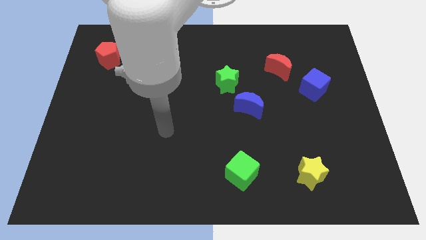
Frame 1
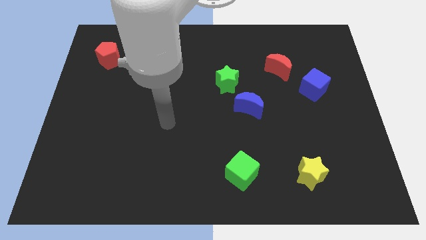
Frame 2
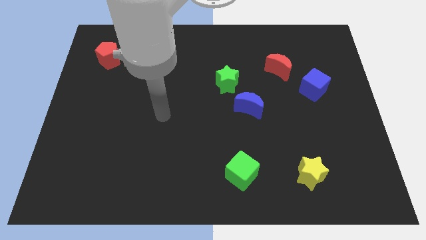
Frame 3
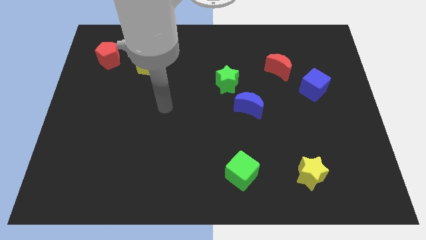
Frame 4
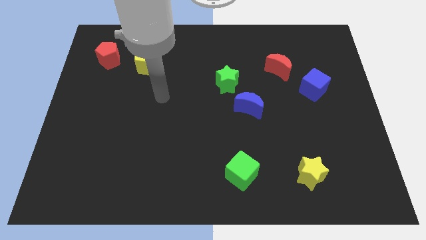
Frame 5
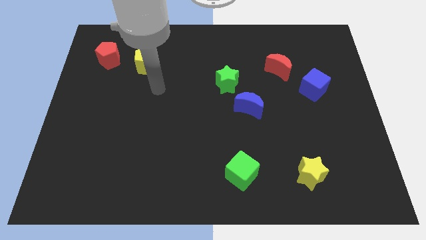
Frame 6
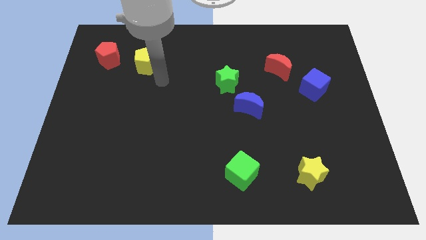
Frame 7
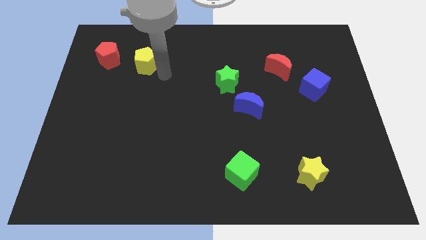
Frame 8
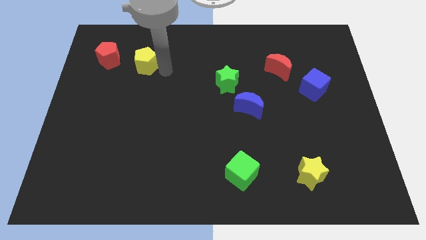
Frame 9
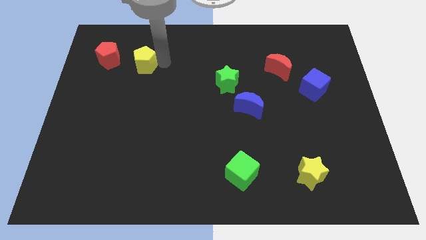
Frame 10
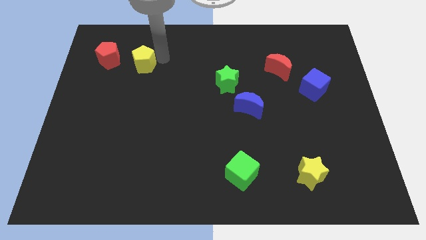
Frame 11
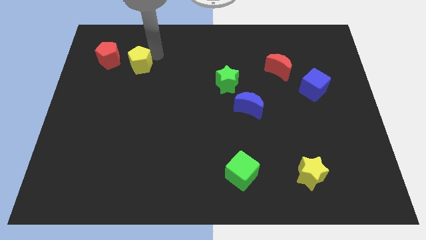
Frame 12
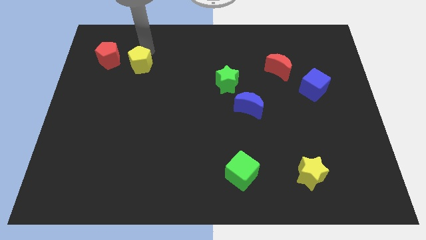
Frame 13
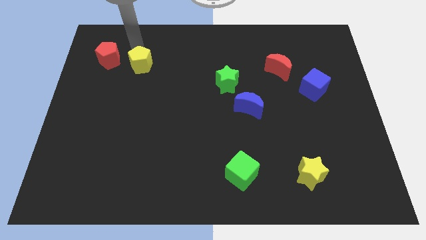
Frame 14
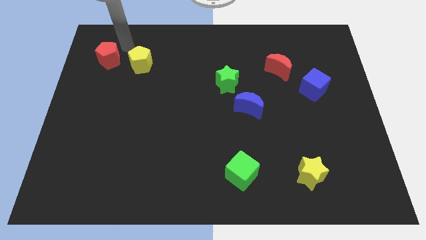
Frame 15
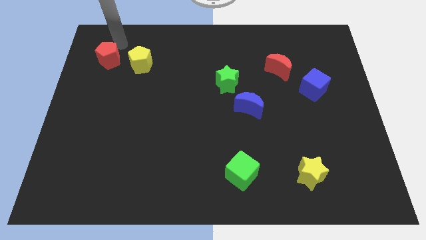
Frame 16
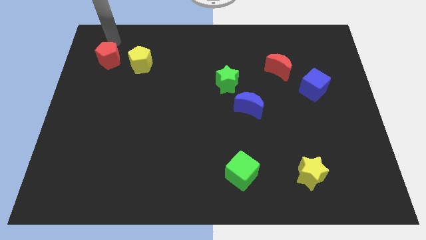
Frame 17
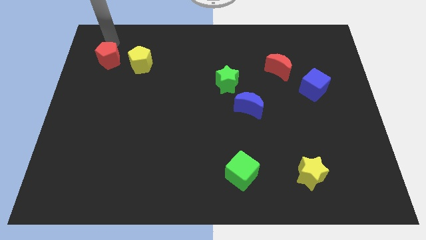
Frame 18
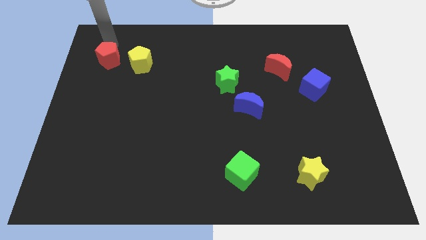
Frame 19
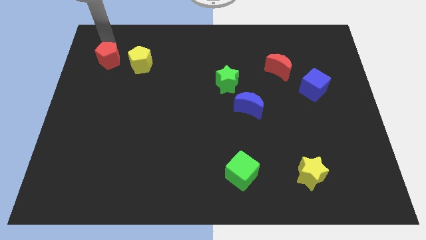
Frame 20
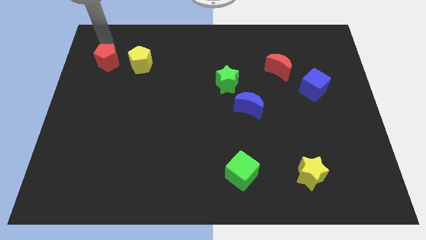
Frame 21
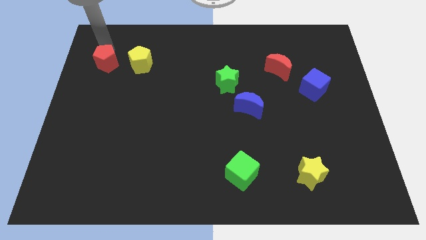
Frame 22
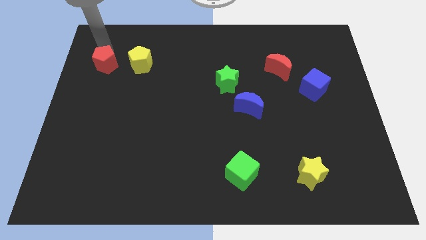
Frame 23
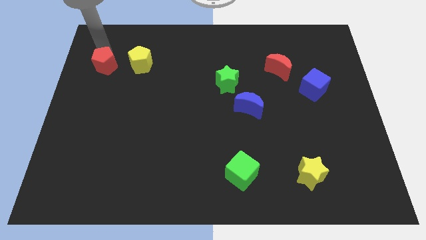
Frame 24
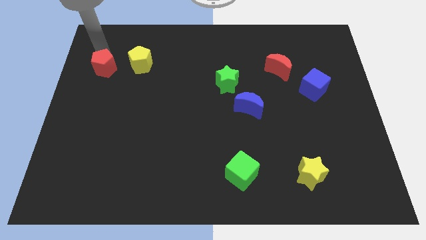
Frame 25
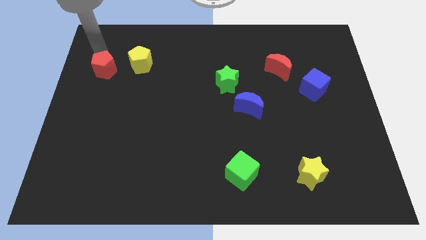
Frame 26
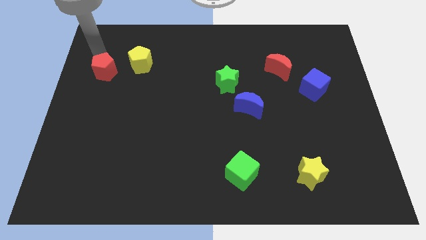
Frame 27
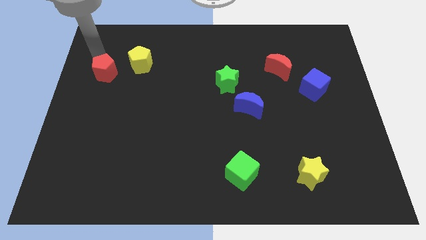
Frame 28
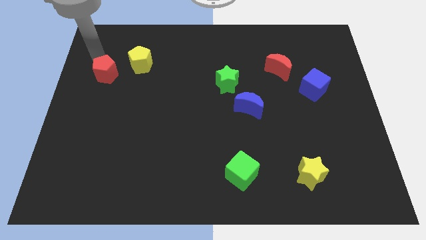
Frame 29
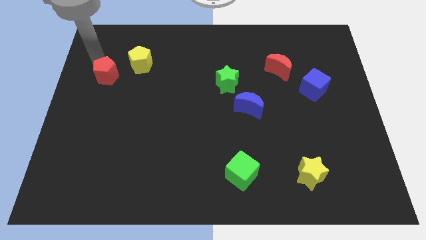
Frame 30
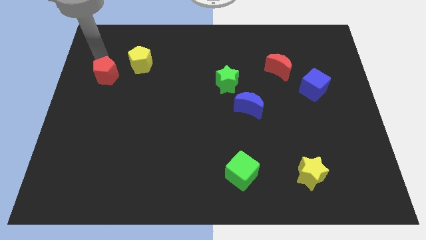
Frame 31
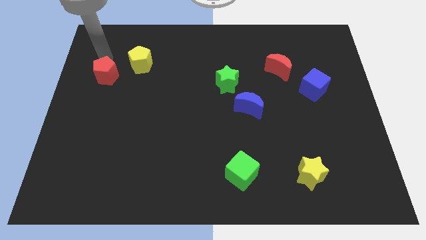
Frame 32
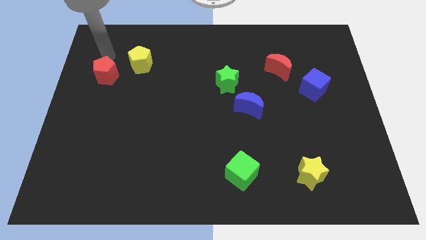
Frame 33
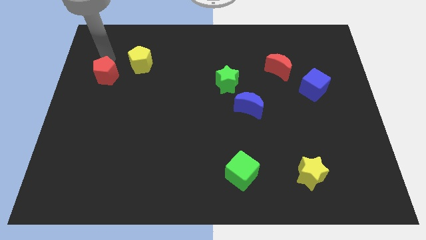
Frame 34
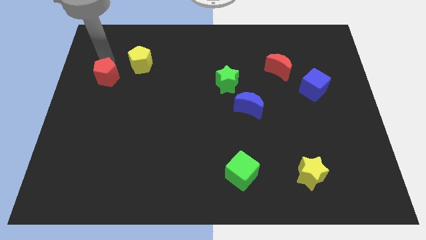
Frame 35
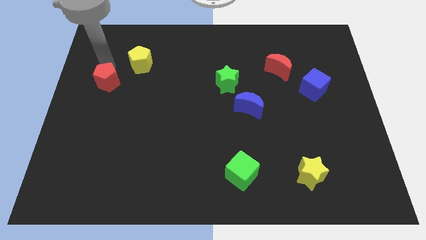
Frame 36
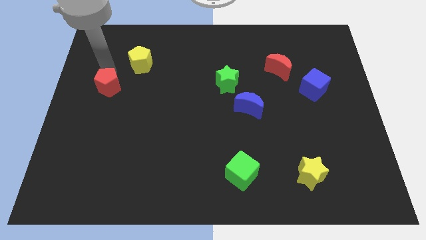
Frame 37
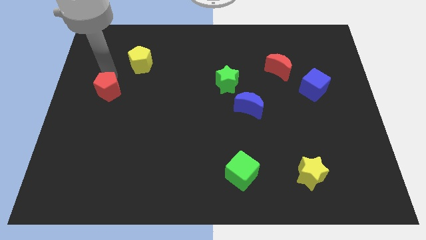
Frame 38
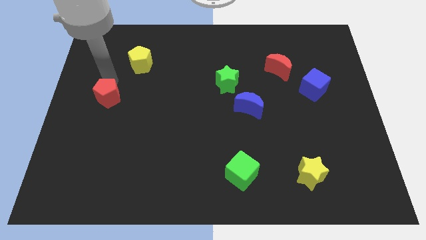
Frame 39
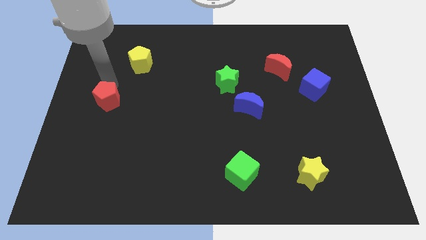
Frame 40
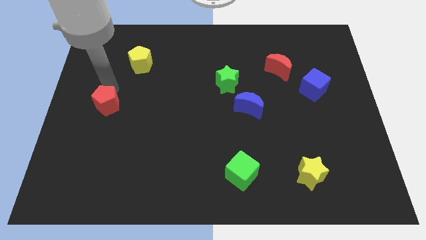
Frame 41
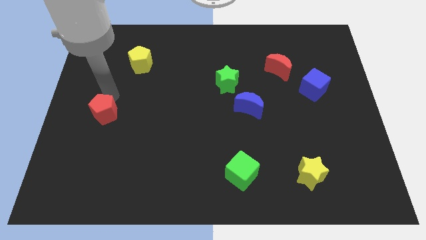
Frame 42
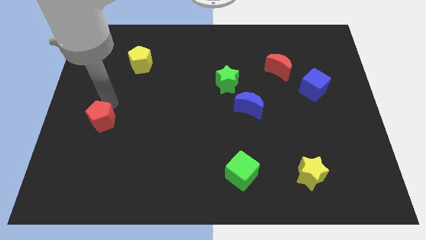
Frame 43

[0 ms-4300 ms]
move the red pentagon downwards

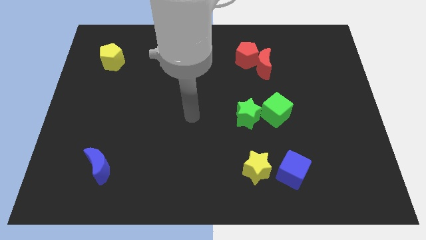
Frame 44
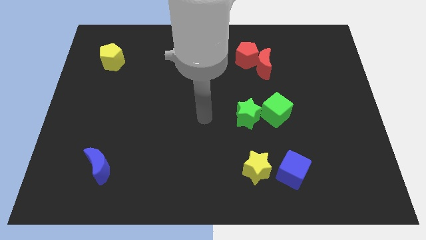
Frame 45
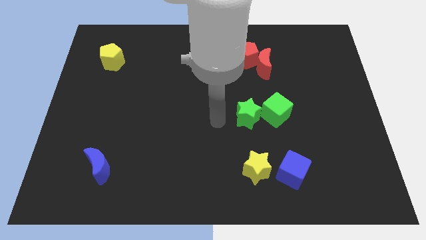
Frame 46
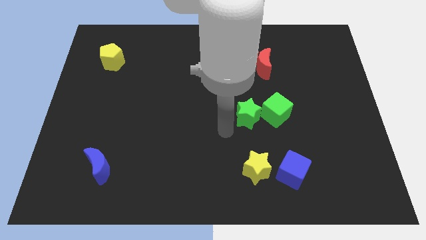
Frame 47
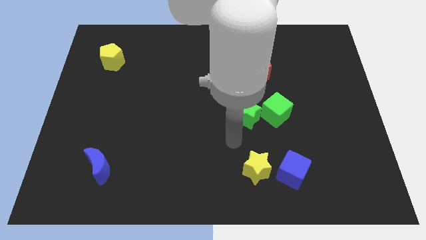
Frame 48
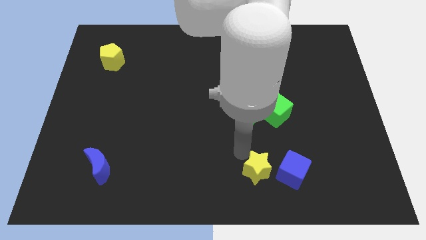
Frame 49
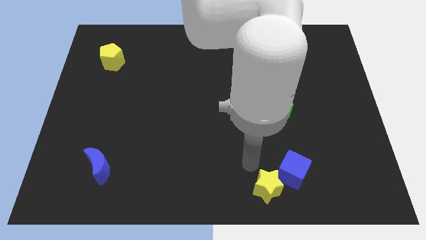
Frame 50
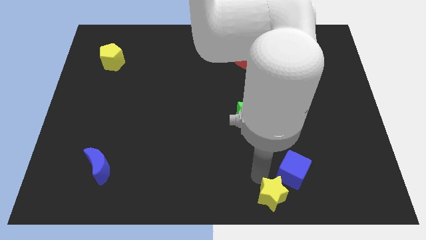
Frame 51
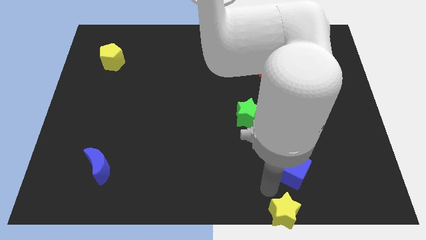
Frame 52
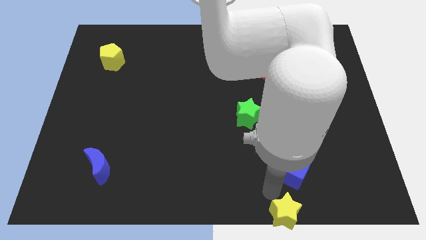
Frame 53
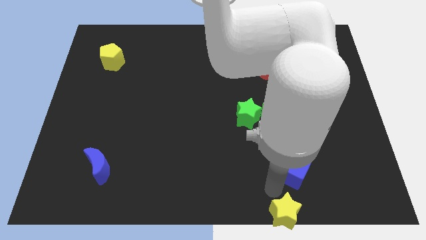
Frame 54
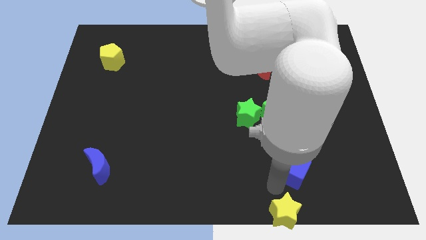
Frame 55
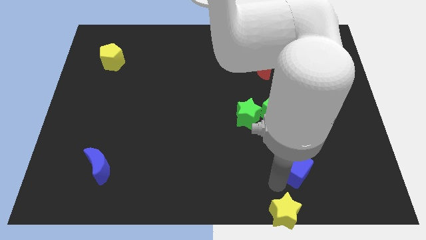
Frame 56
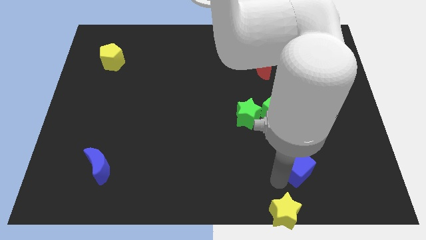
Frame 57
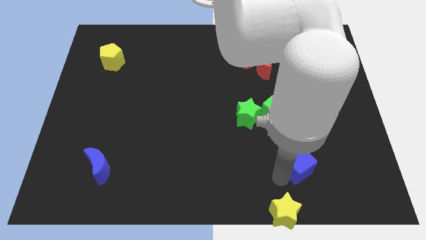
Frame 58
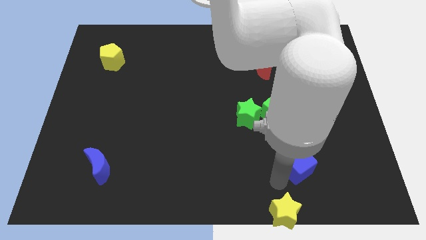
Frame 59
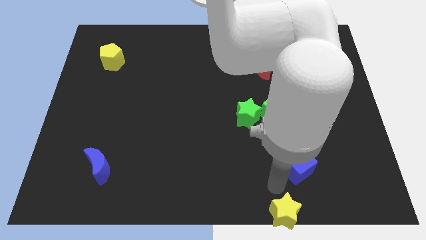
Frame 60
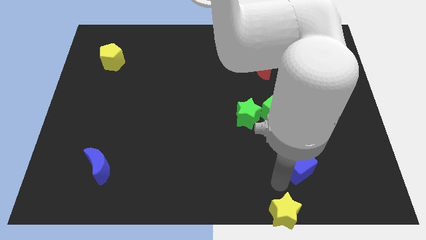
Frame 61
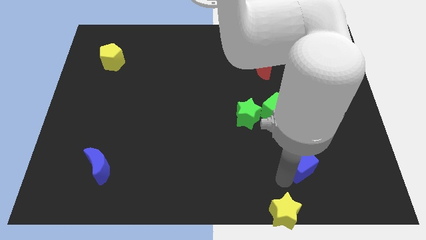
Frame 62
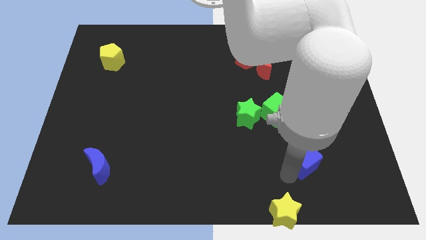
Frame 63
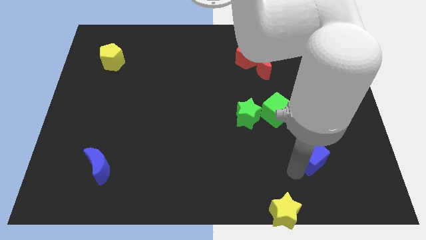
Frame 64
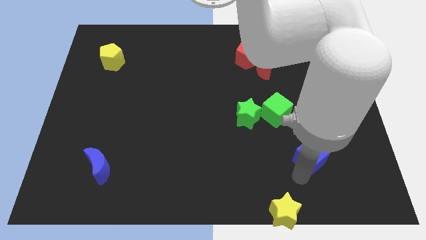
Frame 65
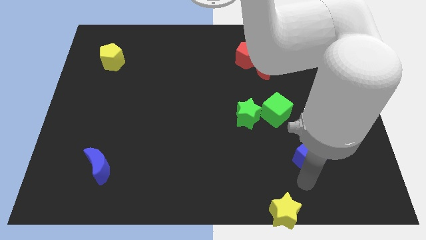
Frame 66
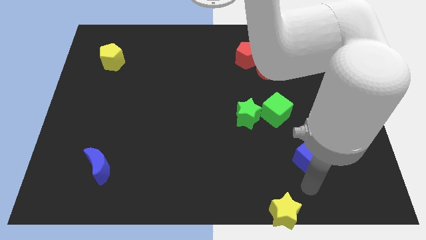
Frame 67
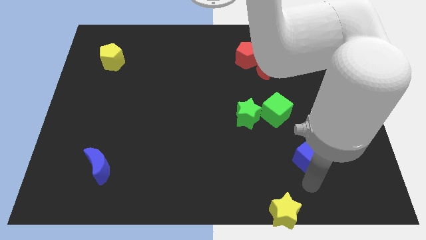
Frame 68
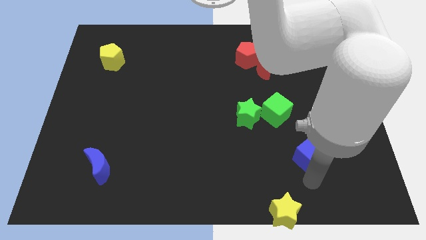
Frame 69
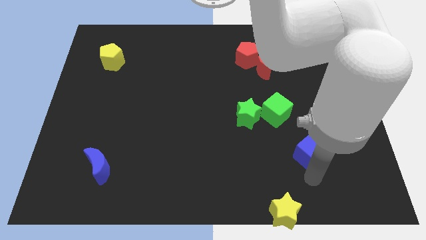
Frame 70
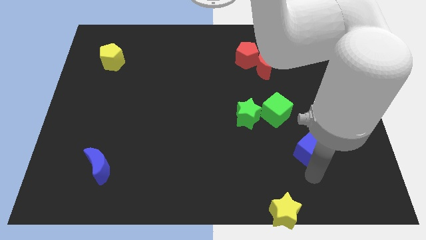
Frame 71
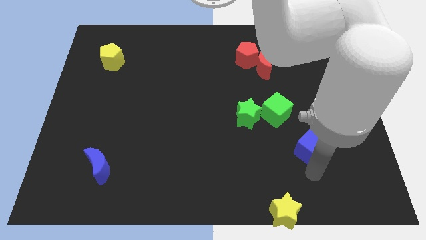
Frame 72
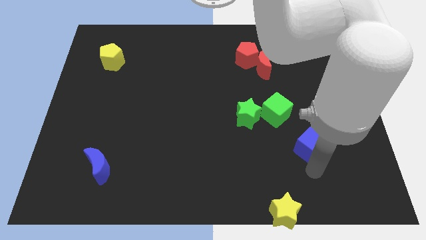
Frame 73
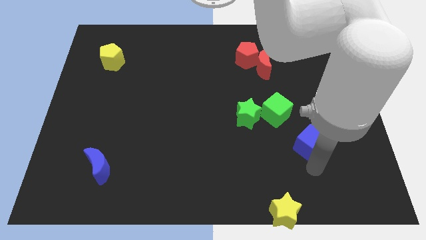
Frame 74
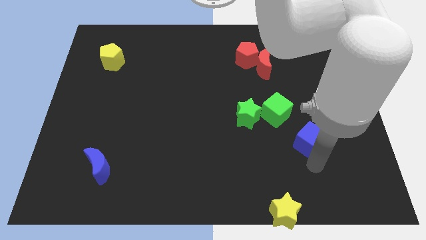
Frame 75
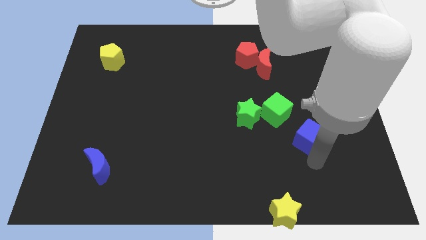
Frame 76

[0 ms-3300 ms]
push the blue cube slightly up

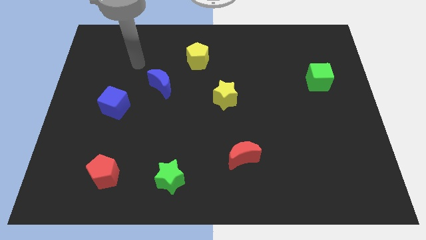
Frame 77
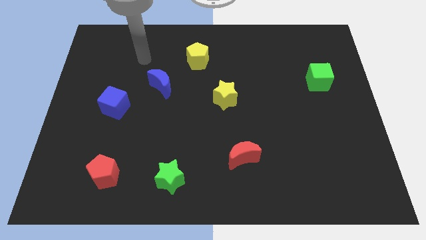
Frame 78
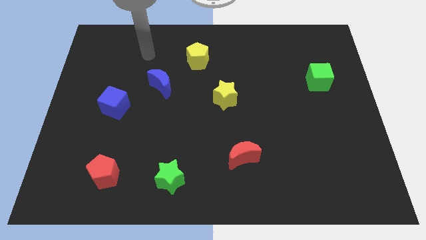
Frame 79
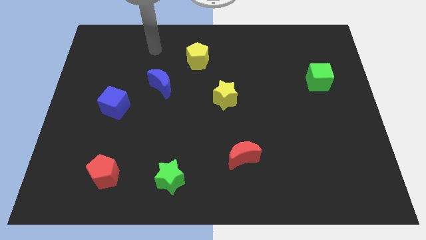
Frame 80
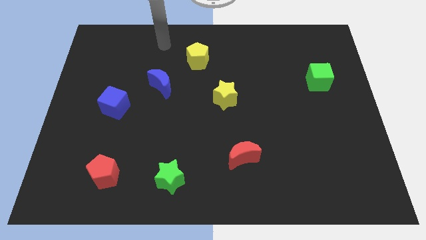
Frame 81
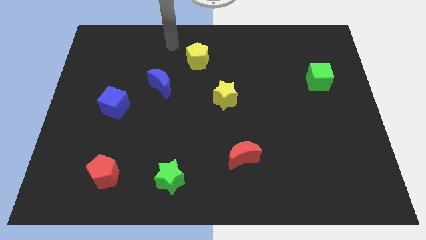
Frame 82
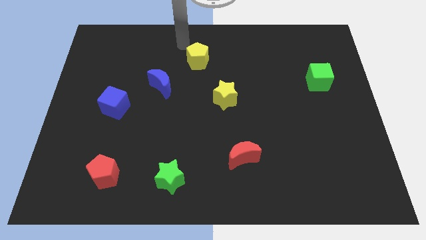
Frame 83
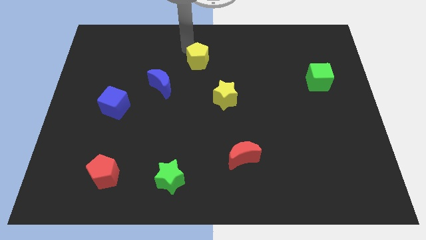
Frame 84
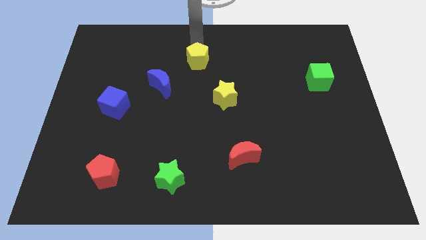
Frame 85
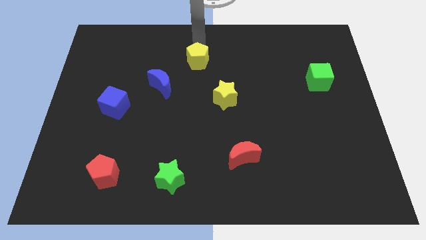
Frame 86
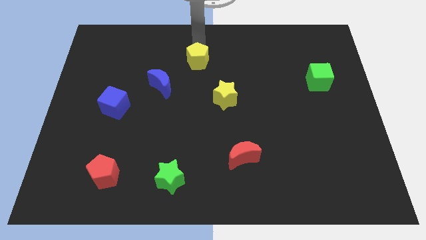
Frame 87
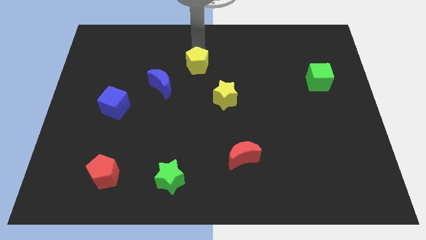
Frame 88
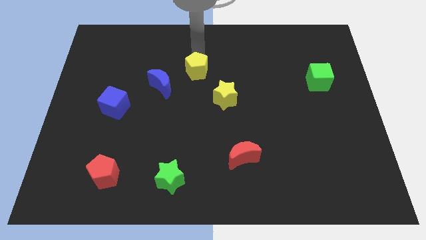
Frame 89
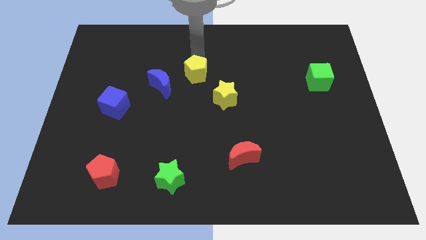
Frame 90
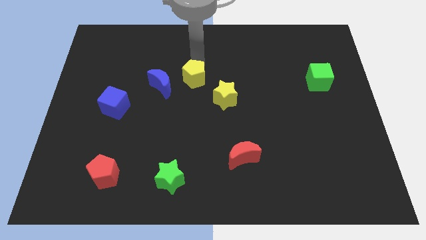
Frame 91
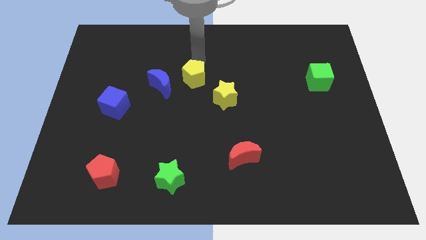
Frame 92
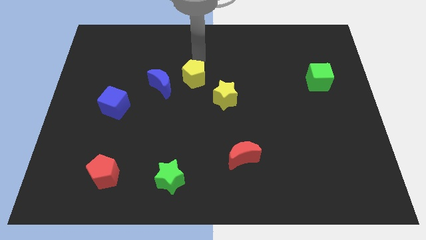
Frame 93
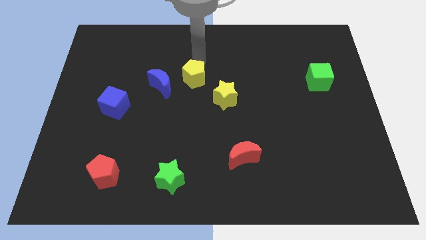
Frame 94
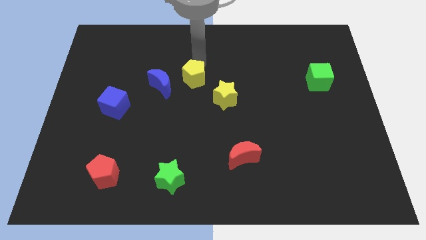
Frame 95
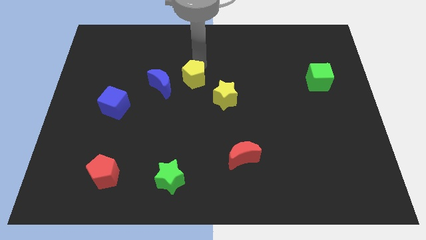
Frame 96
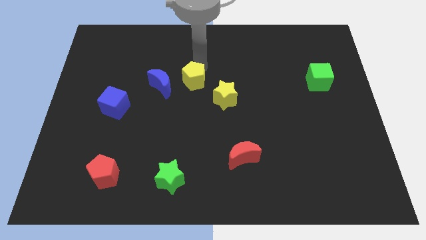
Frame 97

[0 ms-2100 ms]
push the yellow pentagon down a little bit
